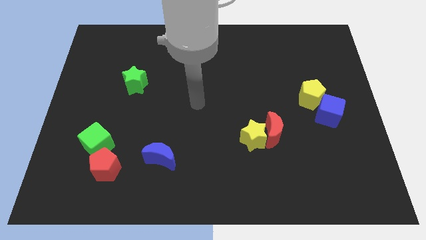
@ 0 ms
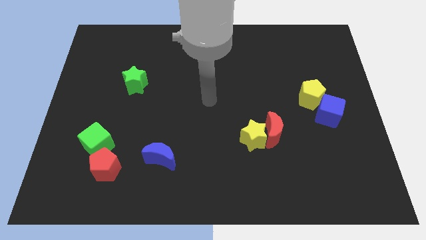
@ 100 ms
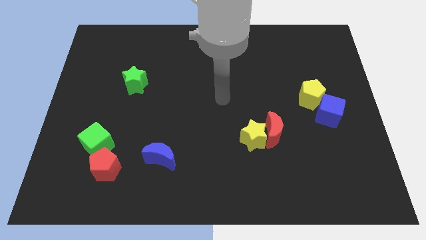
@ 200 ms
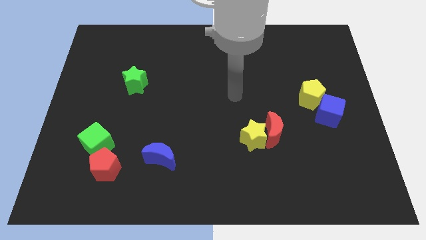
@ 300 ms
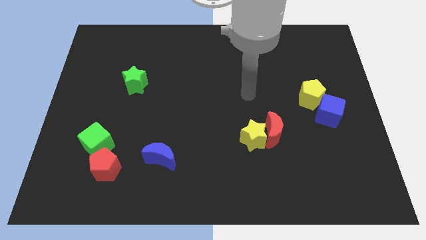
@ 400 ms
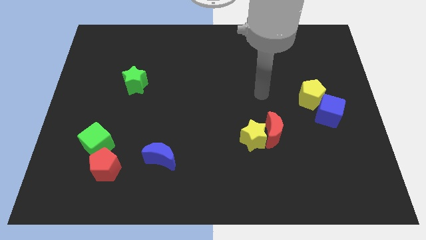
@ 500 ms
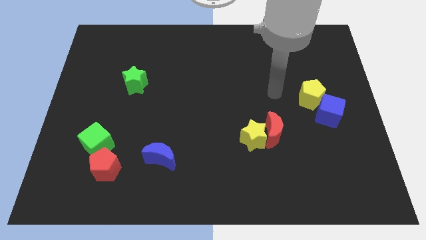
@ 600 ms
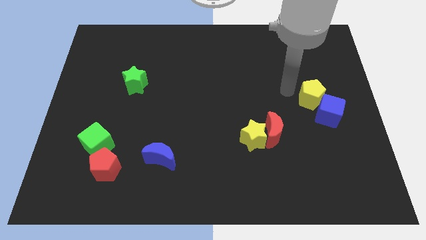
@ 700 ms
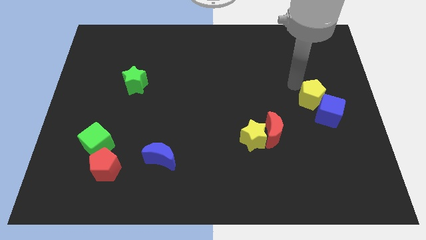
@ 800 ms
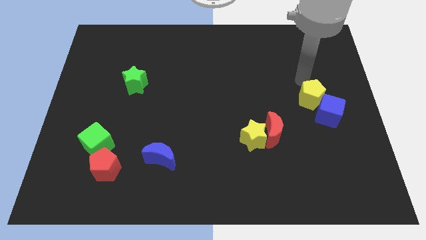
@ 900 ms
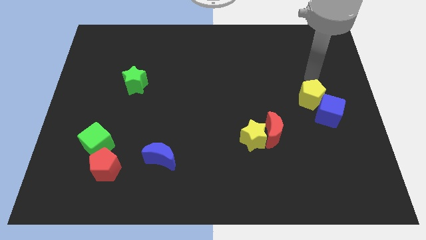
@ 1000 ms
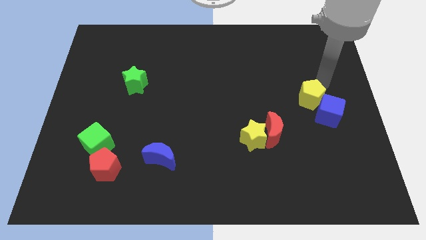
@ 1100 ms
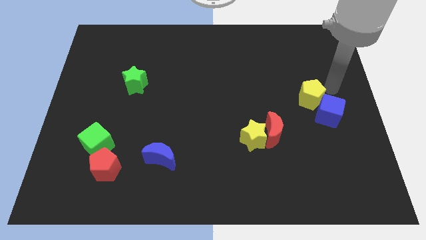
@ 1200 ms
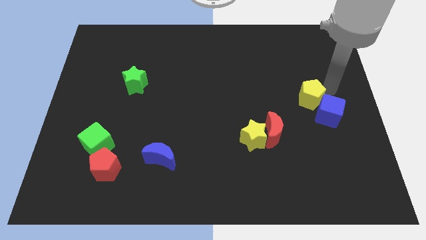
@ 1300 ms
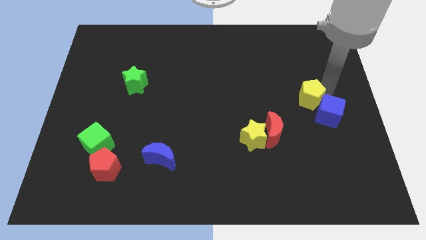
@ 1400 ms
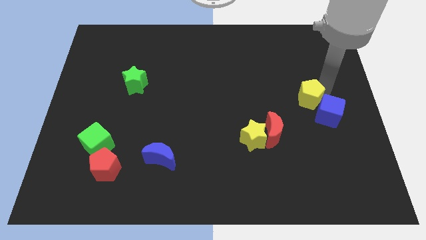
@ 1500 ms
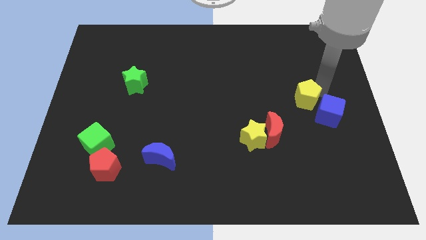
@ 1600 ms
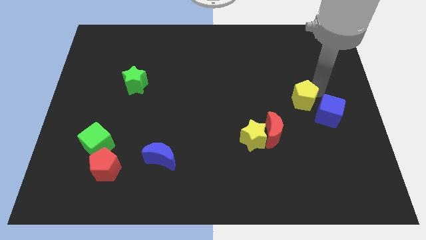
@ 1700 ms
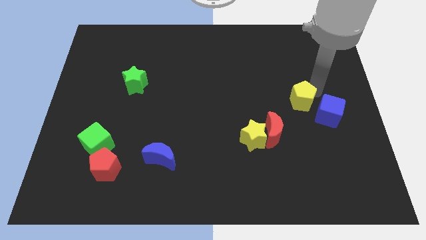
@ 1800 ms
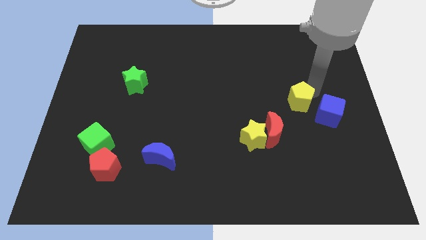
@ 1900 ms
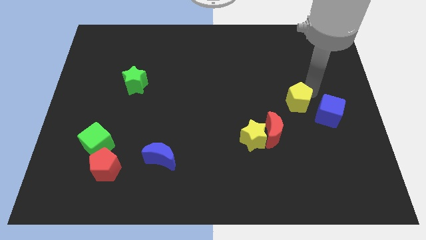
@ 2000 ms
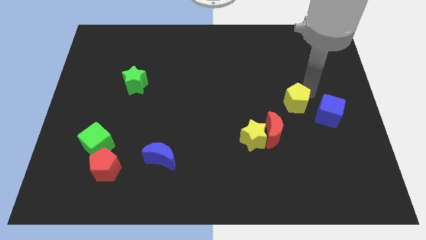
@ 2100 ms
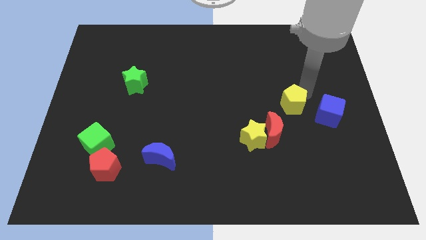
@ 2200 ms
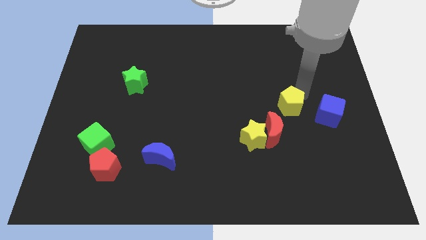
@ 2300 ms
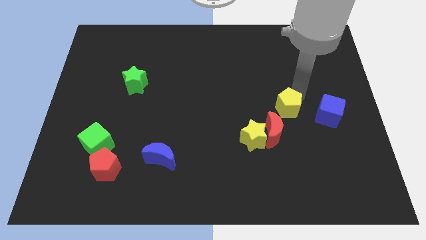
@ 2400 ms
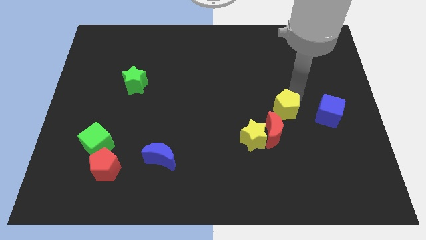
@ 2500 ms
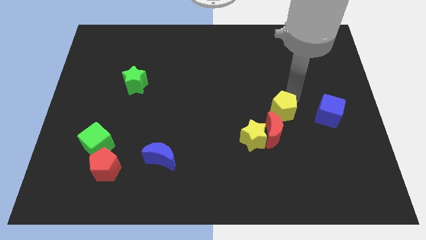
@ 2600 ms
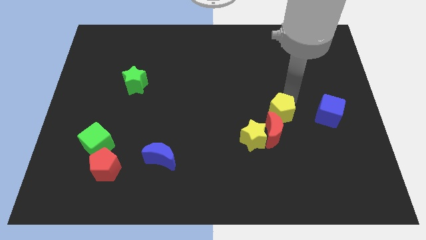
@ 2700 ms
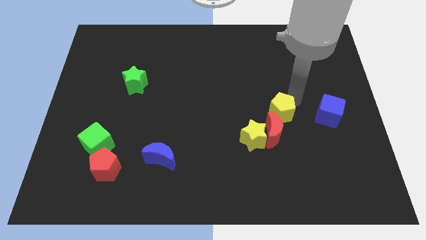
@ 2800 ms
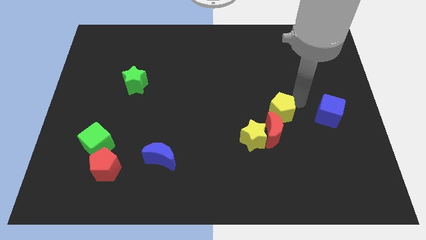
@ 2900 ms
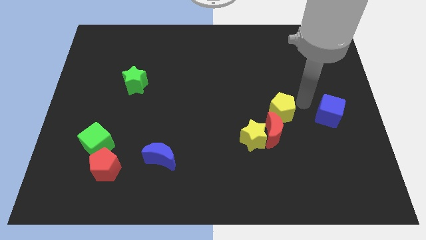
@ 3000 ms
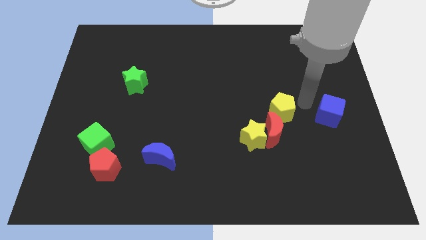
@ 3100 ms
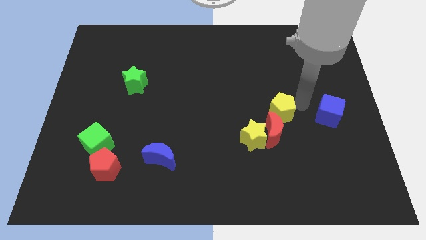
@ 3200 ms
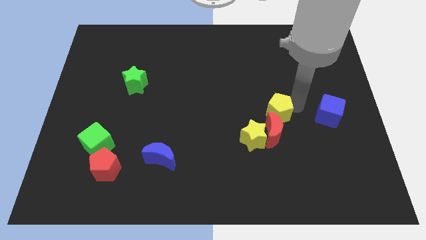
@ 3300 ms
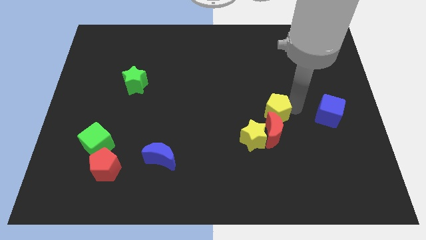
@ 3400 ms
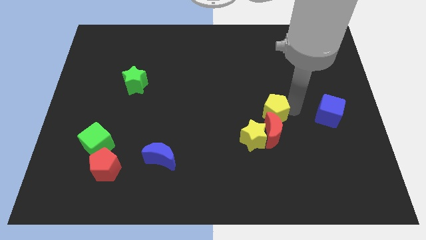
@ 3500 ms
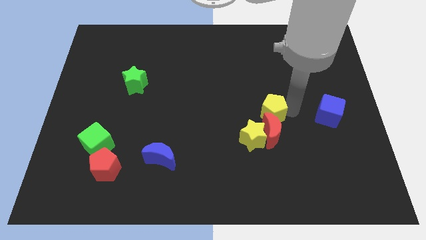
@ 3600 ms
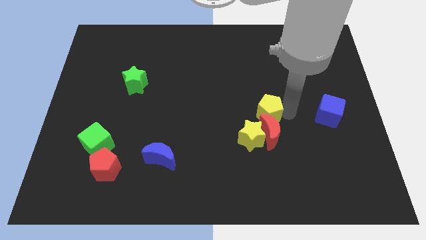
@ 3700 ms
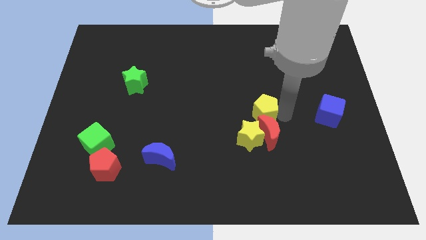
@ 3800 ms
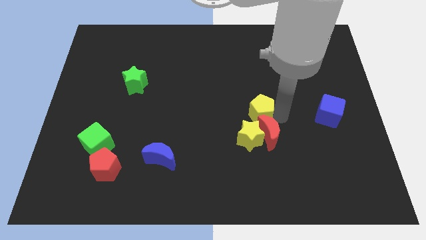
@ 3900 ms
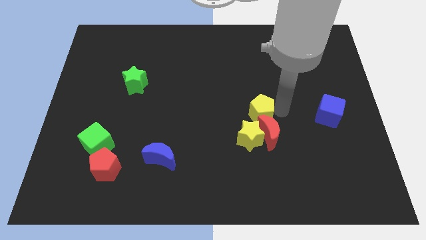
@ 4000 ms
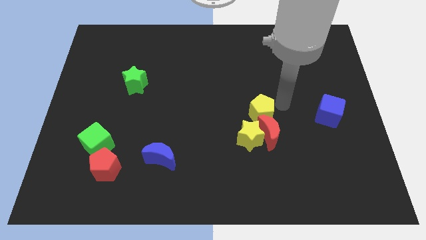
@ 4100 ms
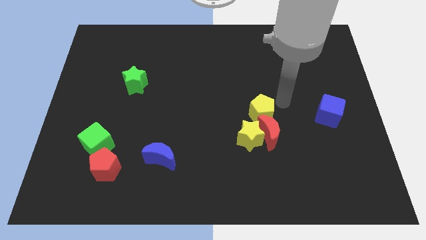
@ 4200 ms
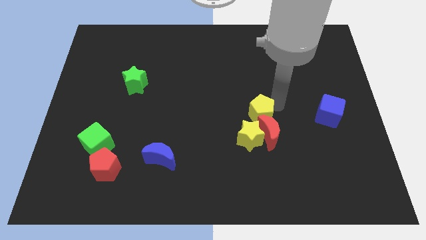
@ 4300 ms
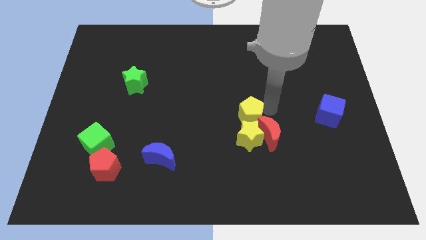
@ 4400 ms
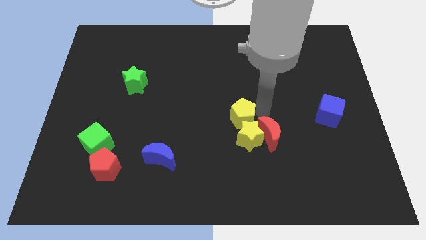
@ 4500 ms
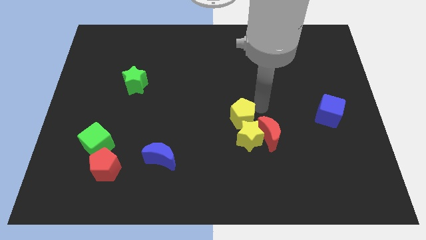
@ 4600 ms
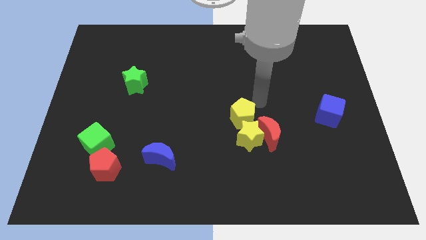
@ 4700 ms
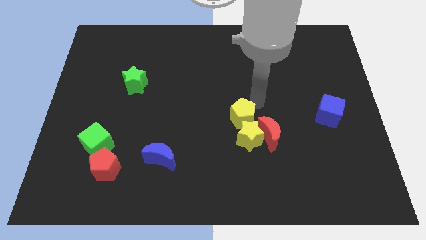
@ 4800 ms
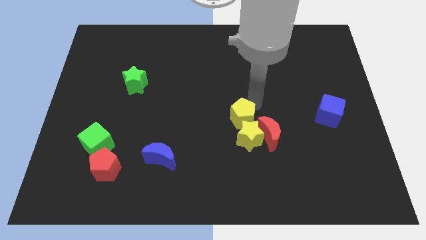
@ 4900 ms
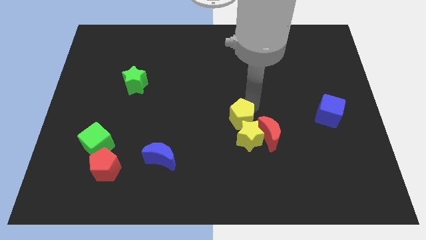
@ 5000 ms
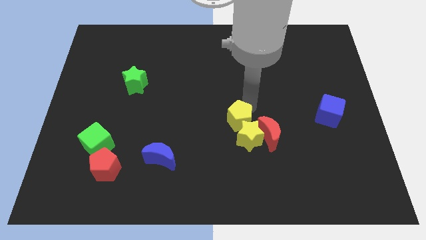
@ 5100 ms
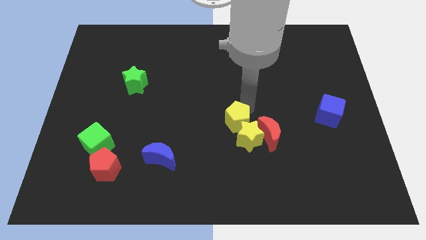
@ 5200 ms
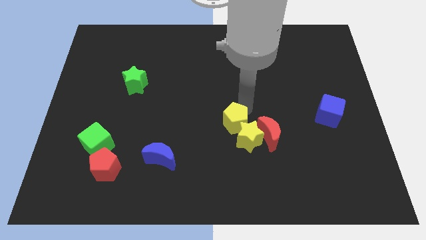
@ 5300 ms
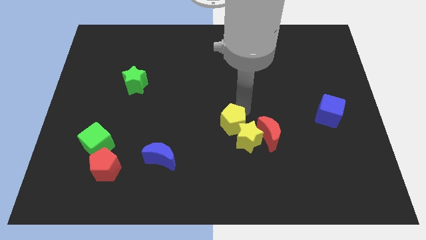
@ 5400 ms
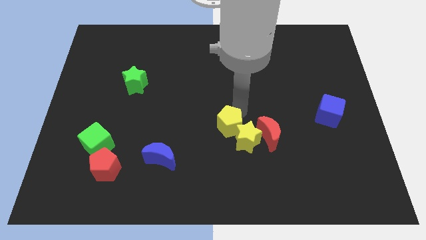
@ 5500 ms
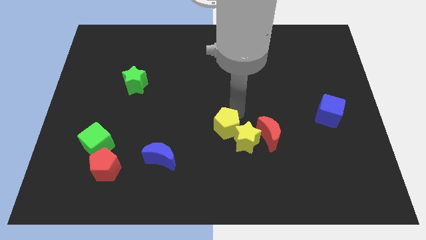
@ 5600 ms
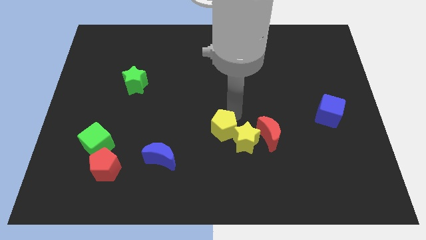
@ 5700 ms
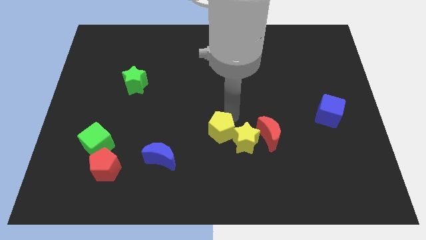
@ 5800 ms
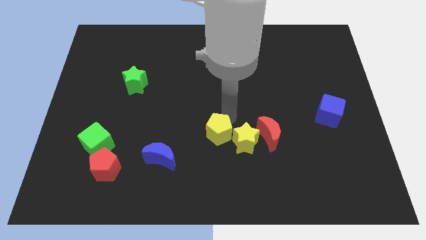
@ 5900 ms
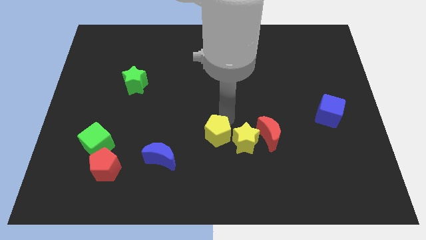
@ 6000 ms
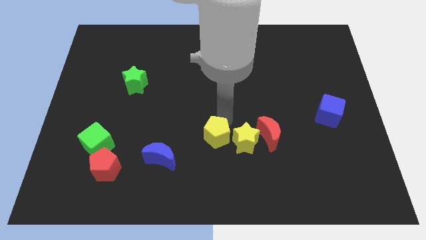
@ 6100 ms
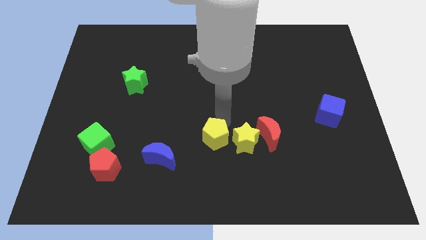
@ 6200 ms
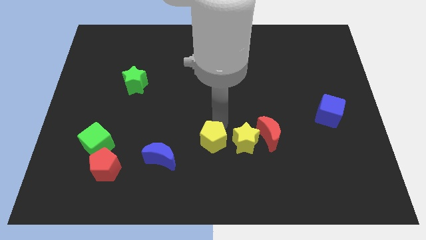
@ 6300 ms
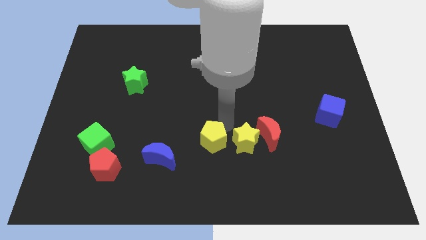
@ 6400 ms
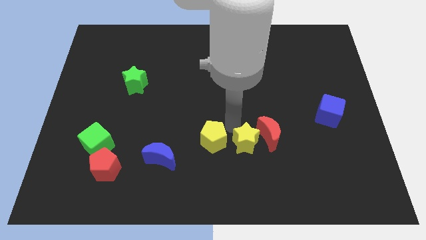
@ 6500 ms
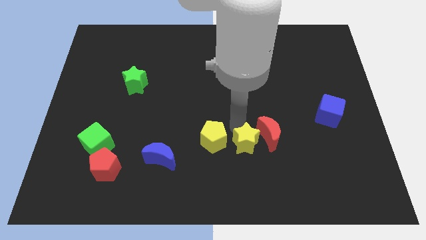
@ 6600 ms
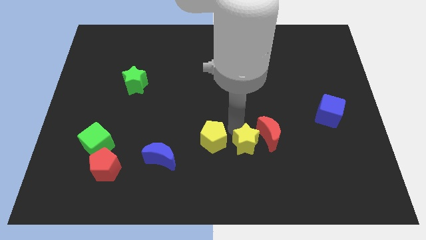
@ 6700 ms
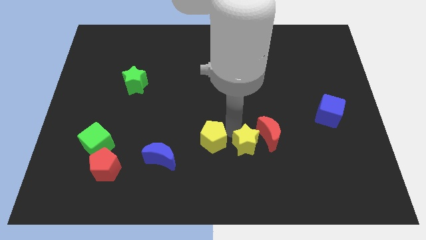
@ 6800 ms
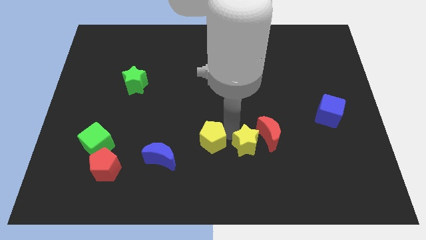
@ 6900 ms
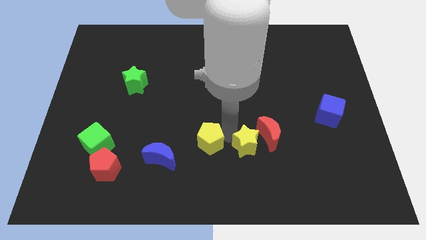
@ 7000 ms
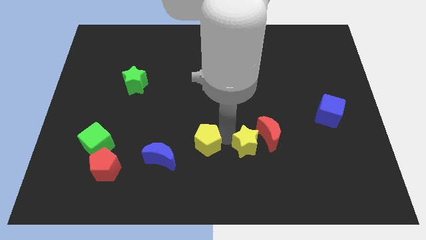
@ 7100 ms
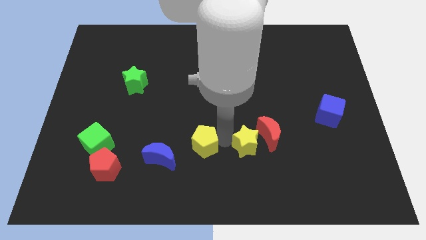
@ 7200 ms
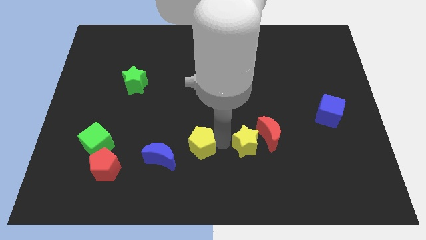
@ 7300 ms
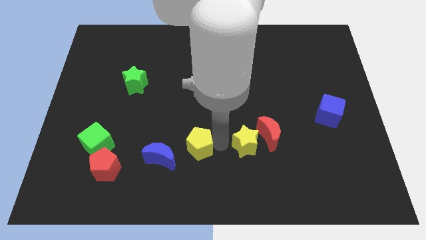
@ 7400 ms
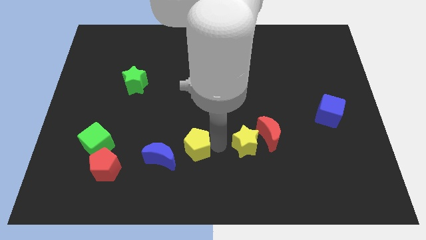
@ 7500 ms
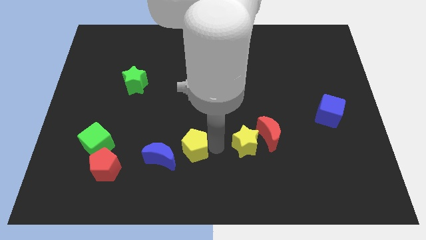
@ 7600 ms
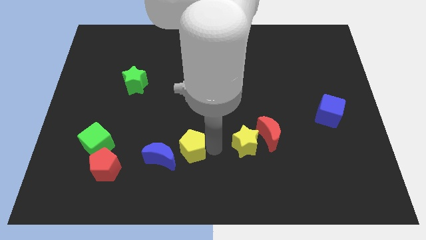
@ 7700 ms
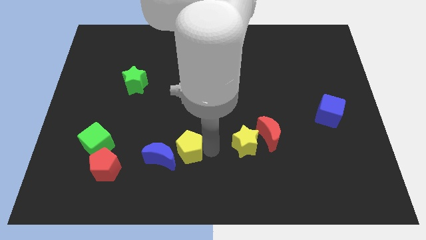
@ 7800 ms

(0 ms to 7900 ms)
put the yellow pentagon to the blue moon
